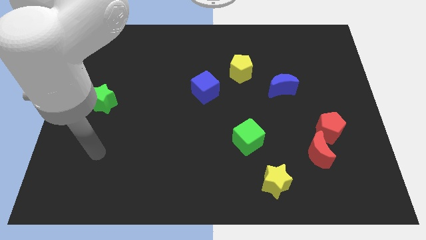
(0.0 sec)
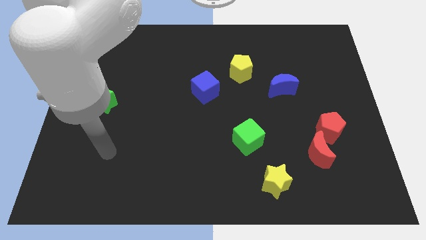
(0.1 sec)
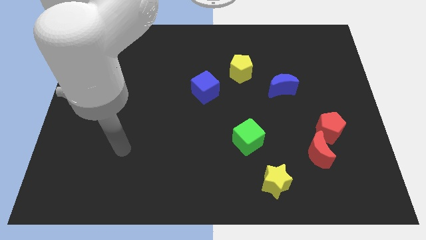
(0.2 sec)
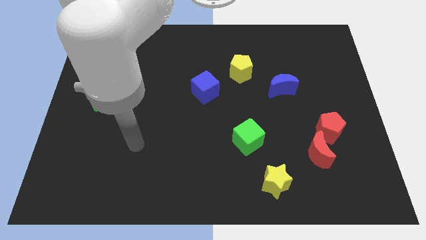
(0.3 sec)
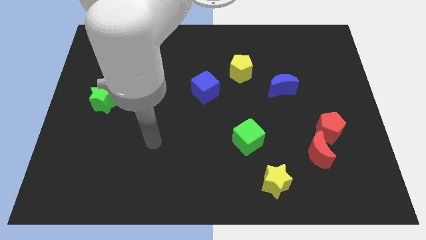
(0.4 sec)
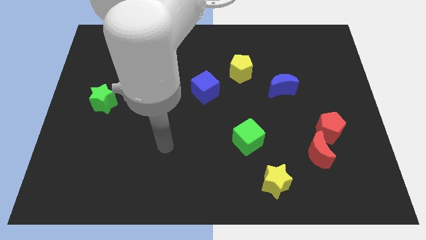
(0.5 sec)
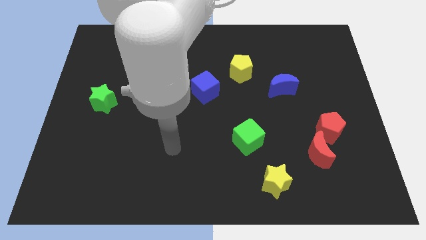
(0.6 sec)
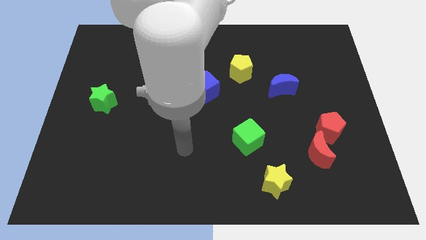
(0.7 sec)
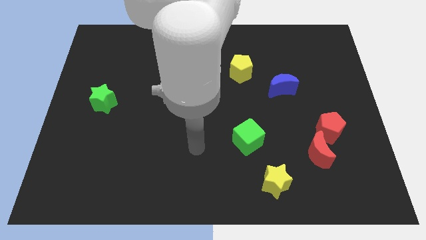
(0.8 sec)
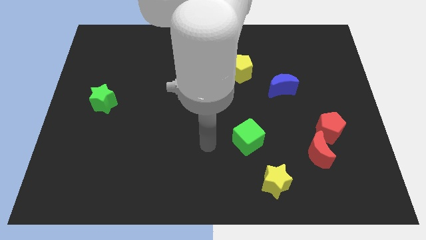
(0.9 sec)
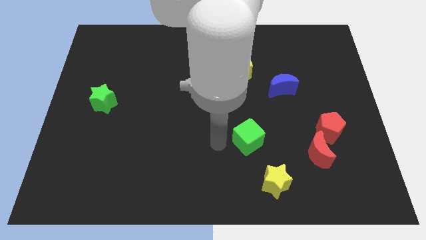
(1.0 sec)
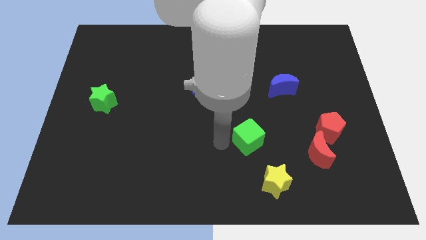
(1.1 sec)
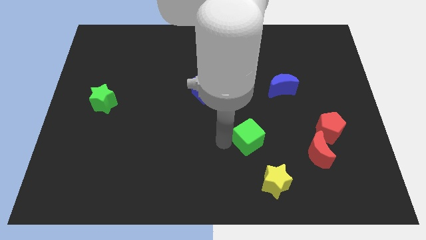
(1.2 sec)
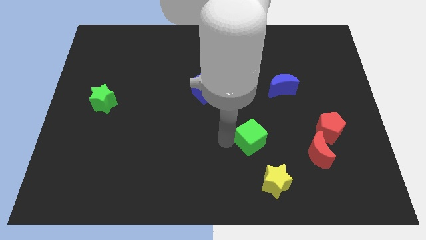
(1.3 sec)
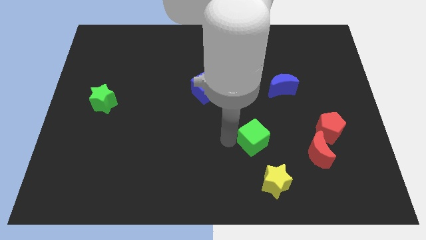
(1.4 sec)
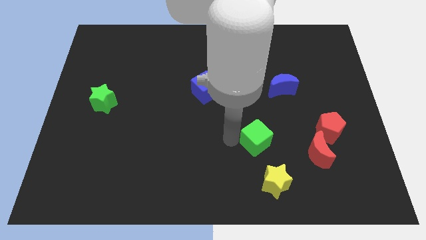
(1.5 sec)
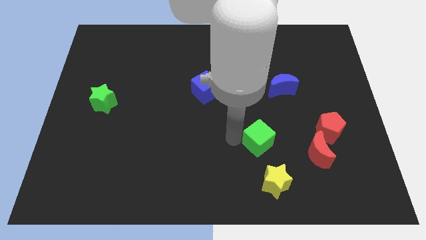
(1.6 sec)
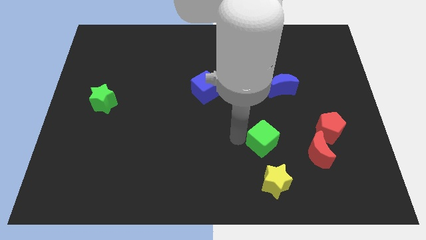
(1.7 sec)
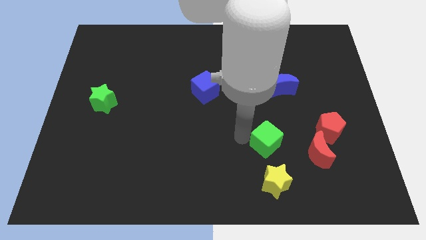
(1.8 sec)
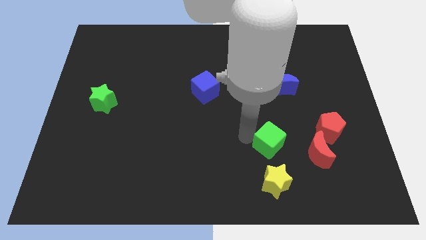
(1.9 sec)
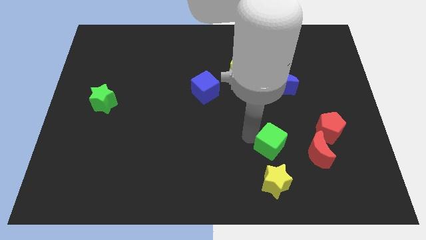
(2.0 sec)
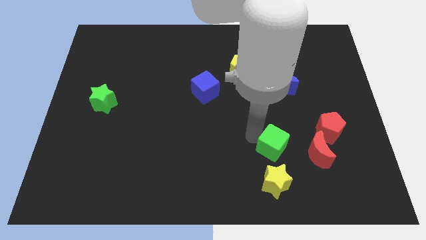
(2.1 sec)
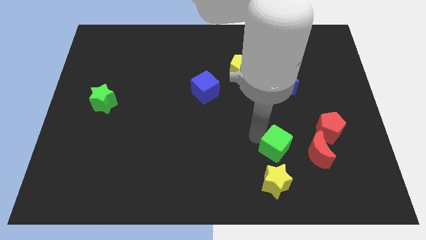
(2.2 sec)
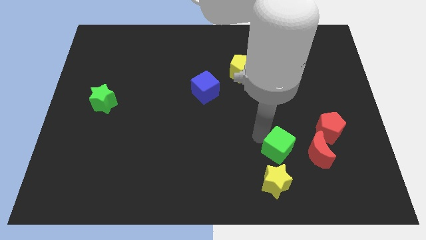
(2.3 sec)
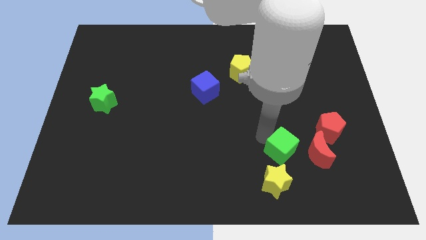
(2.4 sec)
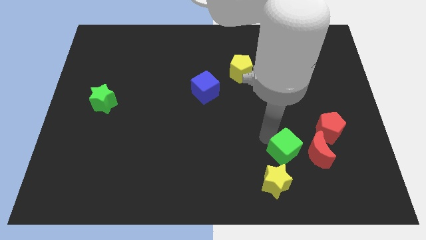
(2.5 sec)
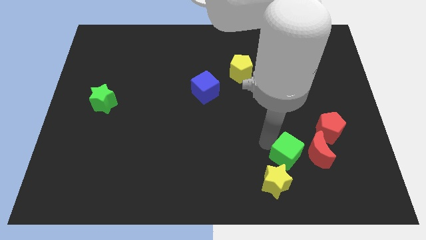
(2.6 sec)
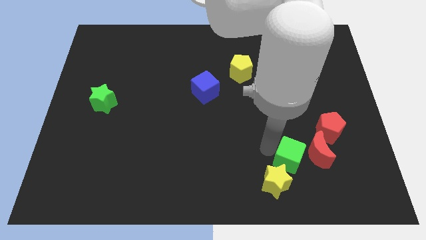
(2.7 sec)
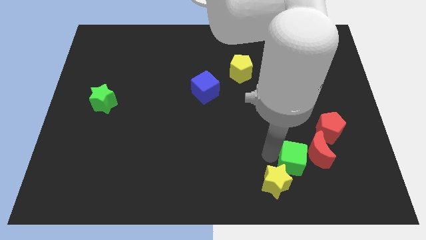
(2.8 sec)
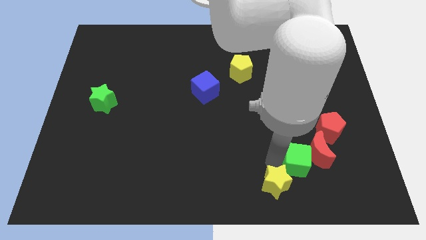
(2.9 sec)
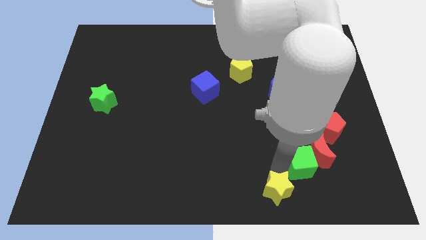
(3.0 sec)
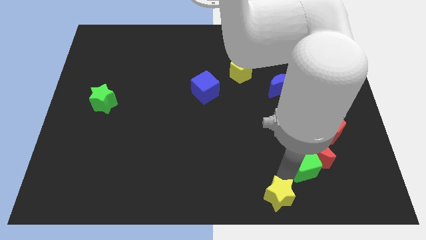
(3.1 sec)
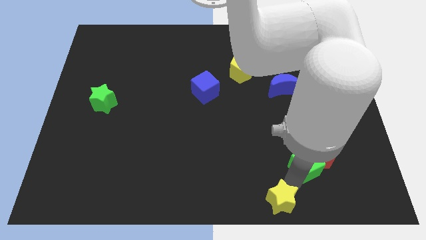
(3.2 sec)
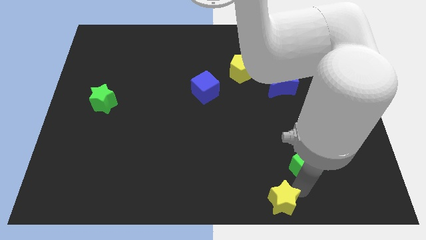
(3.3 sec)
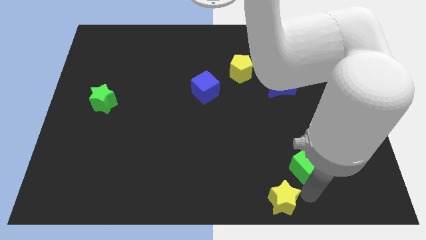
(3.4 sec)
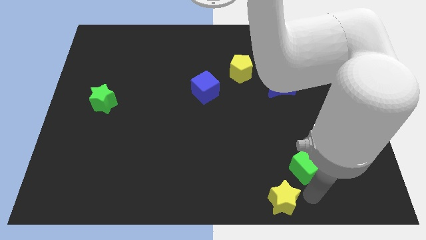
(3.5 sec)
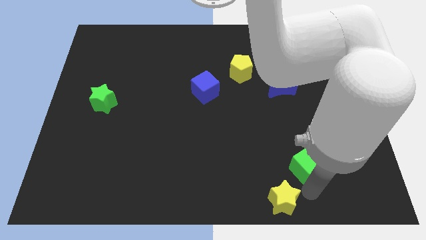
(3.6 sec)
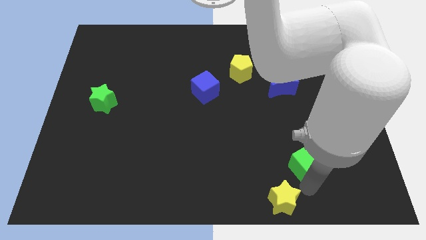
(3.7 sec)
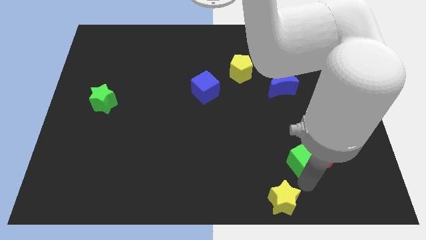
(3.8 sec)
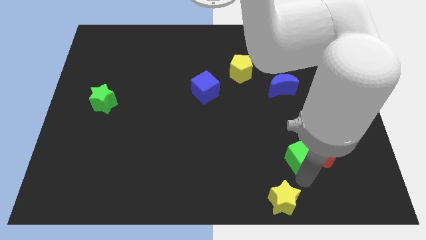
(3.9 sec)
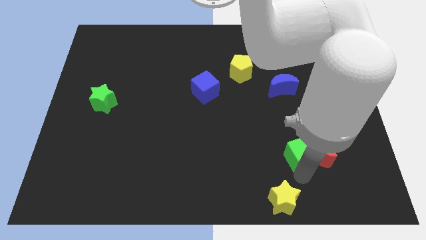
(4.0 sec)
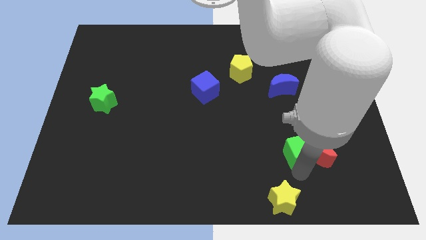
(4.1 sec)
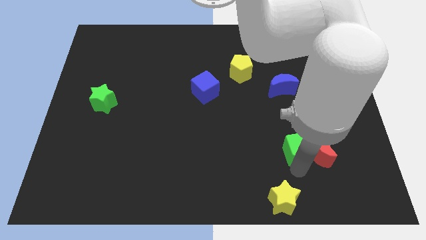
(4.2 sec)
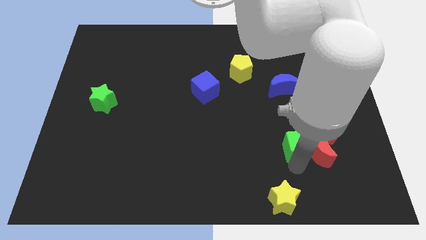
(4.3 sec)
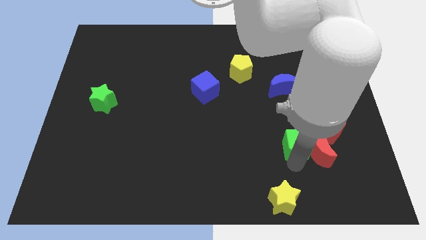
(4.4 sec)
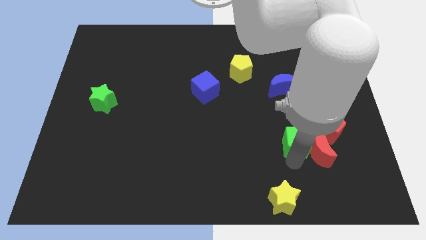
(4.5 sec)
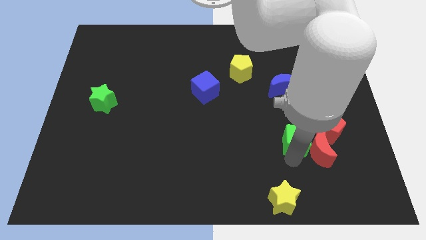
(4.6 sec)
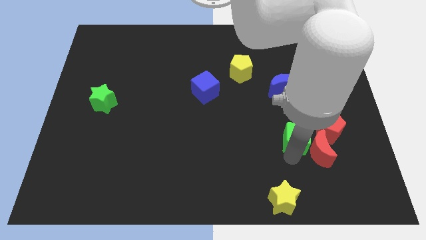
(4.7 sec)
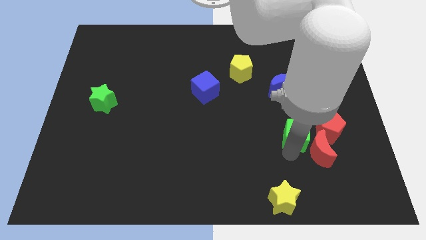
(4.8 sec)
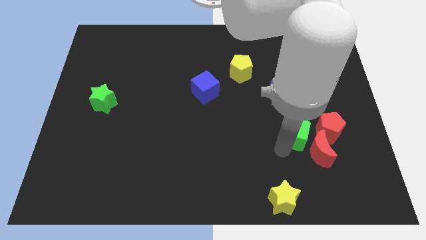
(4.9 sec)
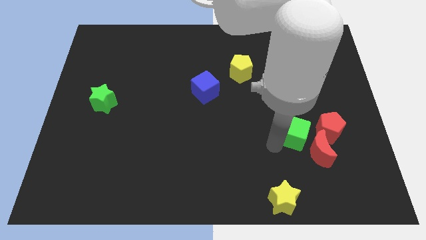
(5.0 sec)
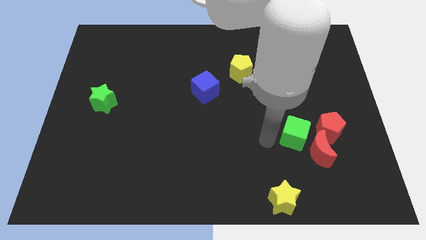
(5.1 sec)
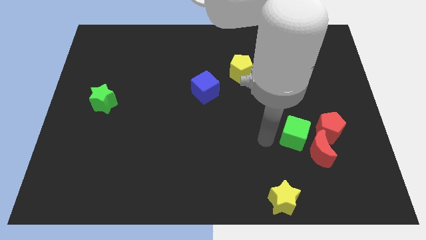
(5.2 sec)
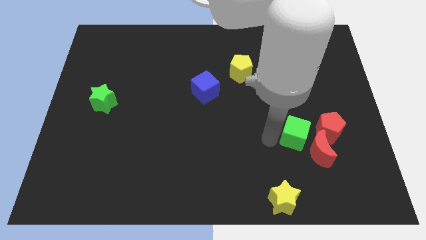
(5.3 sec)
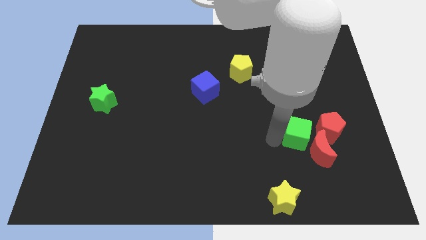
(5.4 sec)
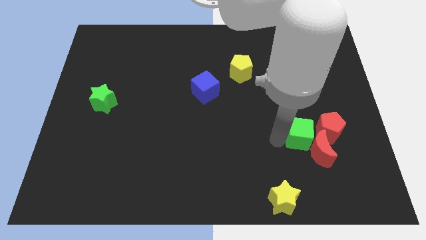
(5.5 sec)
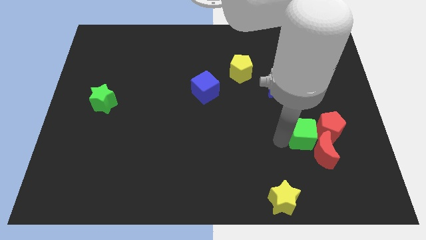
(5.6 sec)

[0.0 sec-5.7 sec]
put the green cube to the red pentagon
